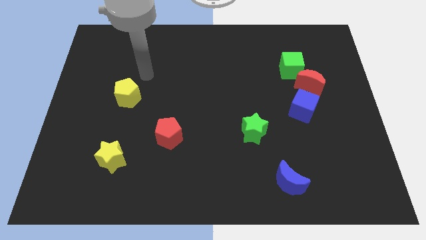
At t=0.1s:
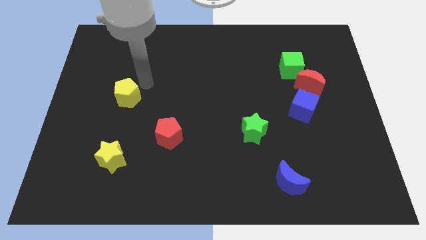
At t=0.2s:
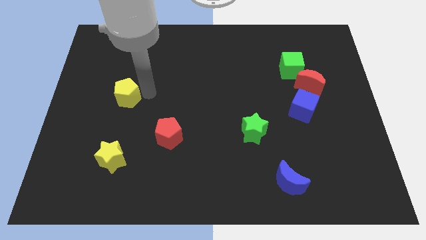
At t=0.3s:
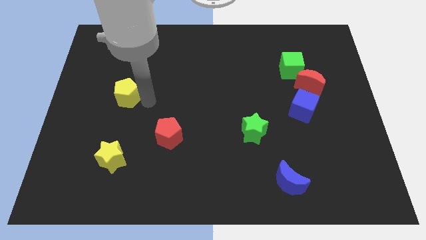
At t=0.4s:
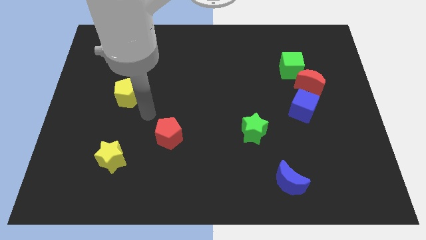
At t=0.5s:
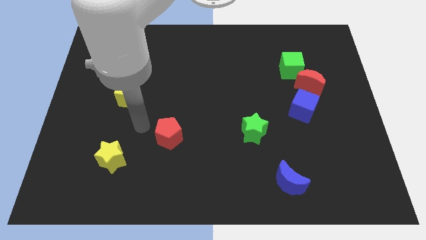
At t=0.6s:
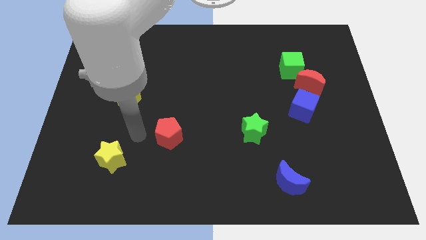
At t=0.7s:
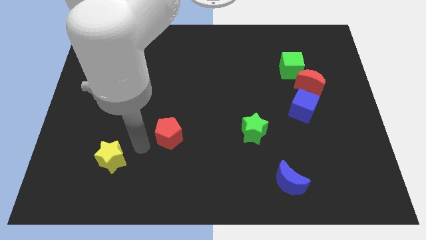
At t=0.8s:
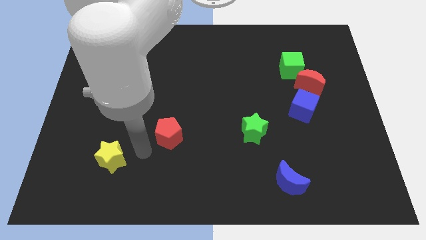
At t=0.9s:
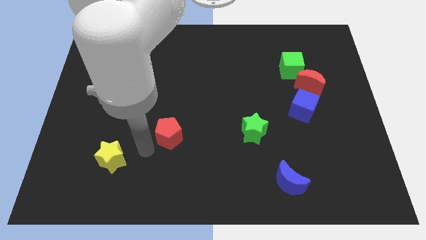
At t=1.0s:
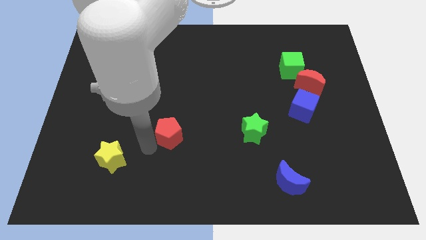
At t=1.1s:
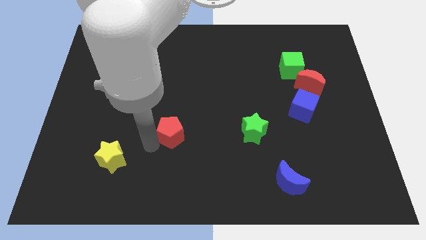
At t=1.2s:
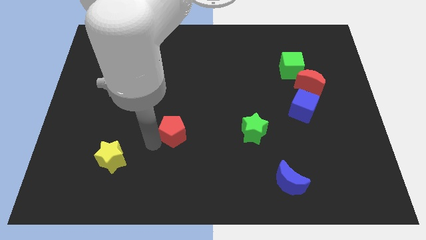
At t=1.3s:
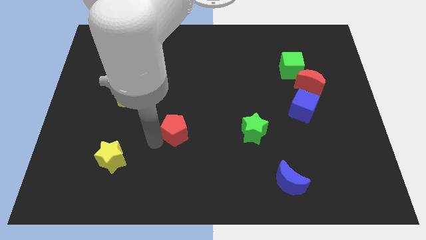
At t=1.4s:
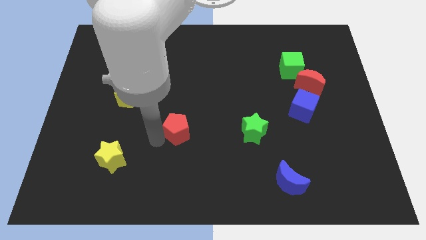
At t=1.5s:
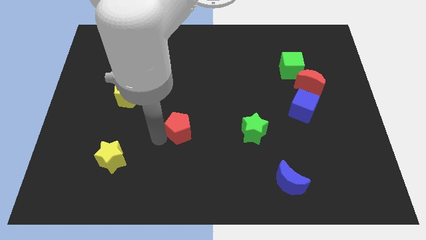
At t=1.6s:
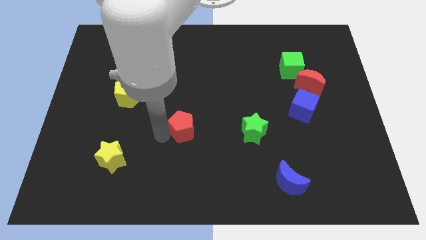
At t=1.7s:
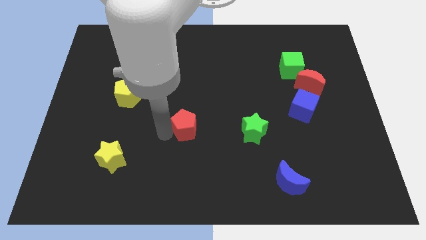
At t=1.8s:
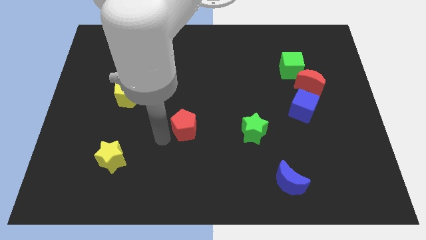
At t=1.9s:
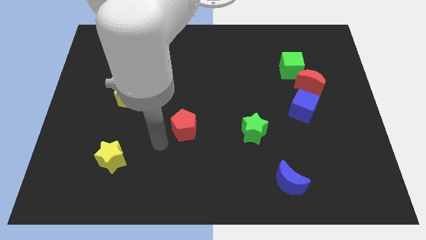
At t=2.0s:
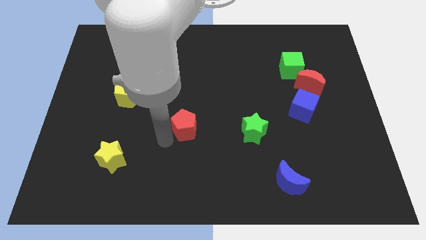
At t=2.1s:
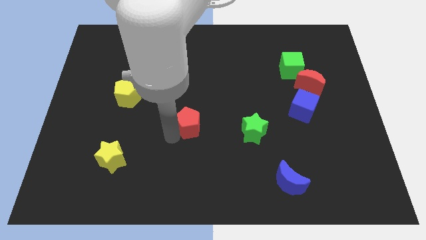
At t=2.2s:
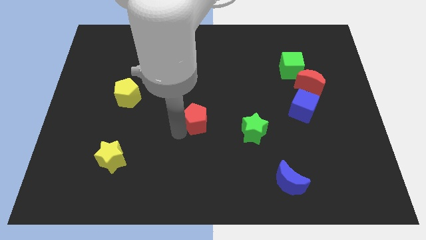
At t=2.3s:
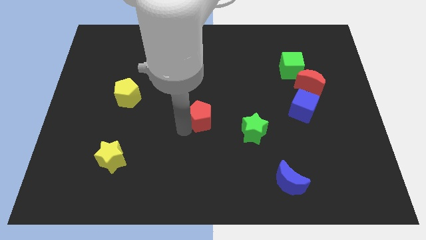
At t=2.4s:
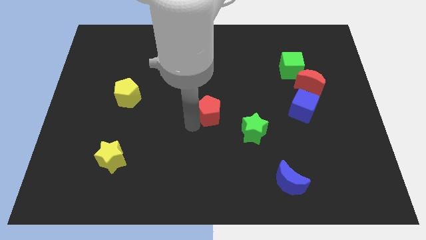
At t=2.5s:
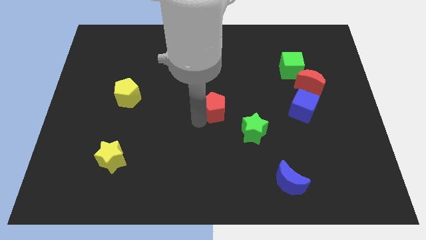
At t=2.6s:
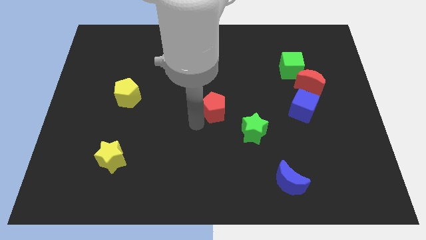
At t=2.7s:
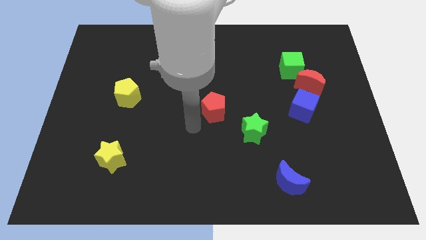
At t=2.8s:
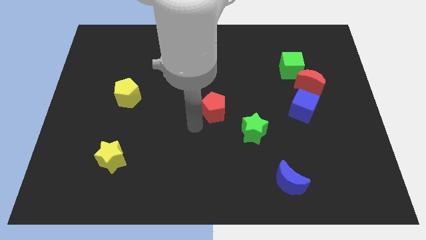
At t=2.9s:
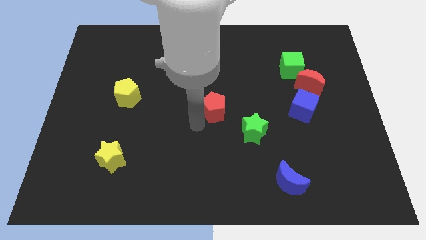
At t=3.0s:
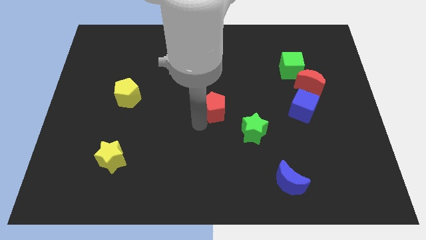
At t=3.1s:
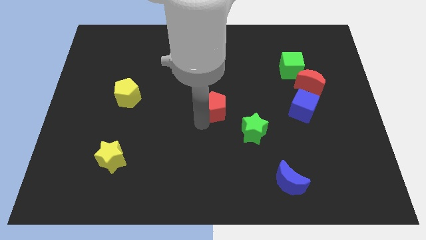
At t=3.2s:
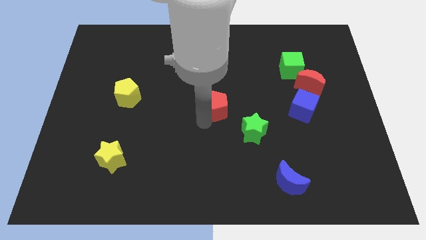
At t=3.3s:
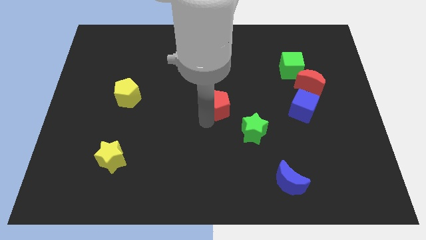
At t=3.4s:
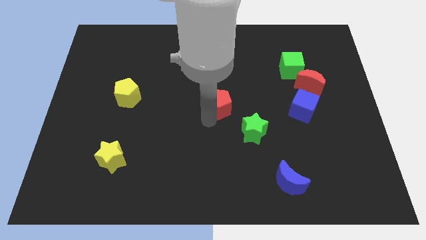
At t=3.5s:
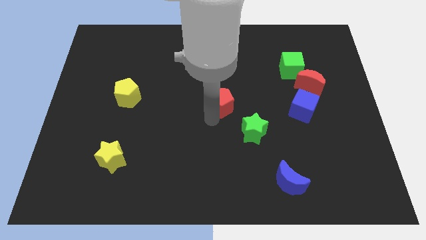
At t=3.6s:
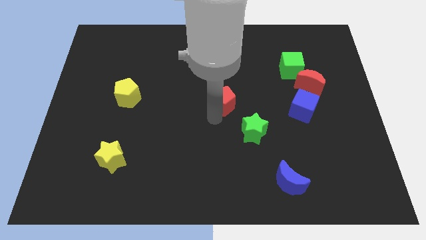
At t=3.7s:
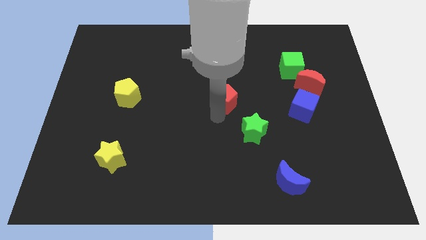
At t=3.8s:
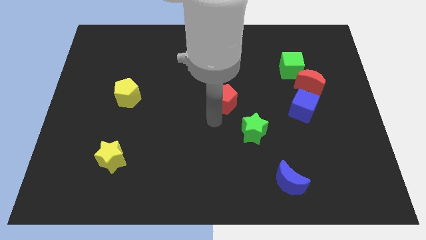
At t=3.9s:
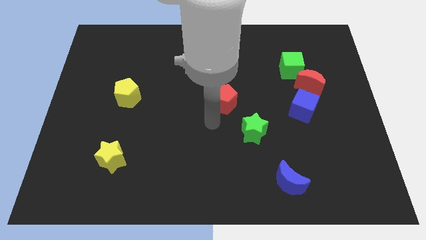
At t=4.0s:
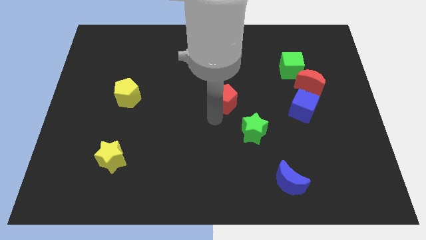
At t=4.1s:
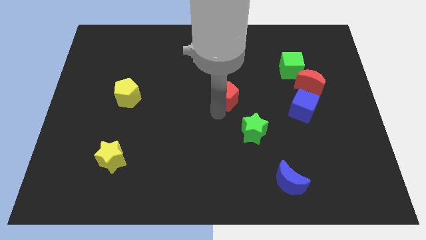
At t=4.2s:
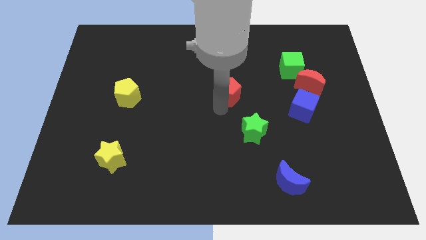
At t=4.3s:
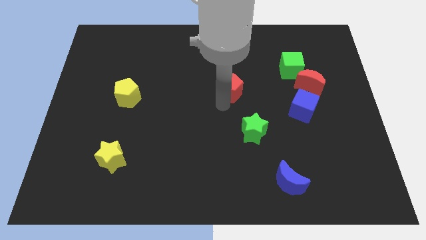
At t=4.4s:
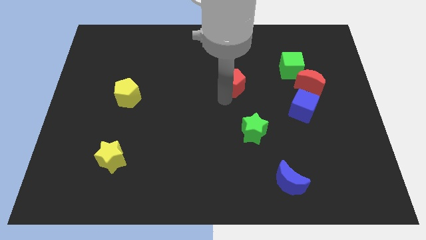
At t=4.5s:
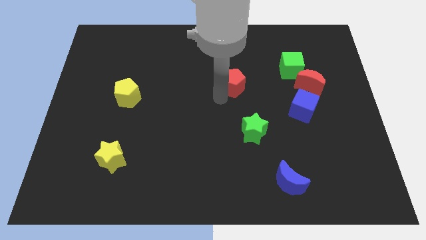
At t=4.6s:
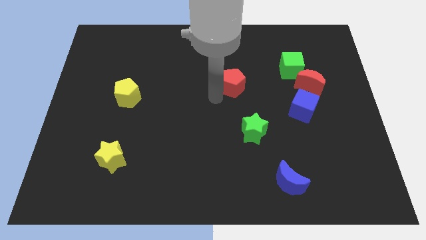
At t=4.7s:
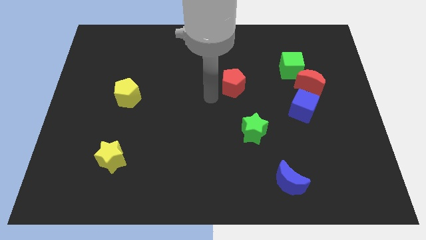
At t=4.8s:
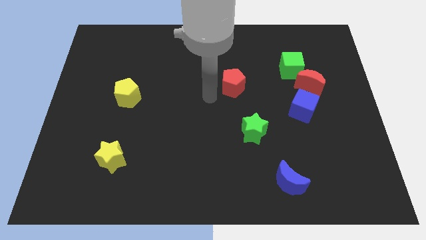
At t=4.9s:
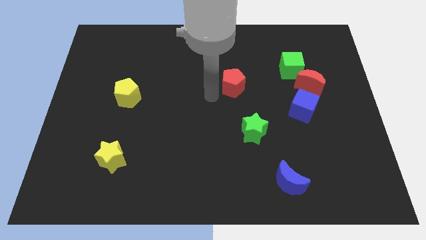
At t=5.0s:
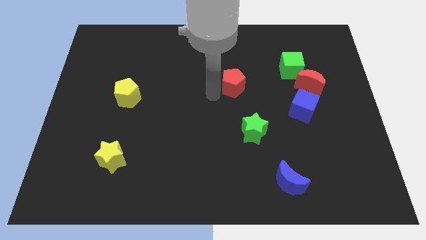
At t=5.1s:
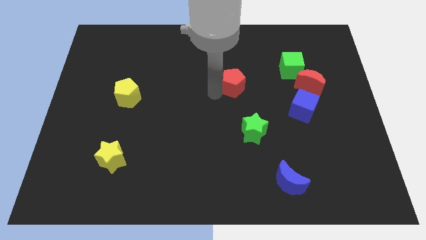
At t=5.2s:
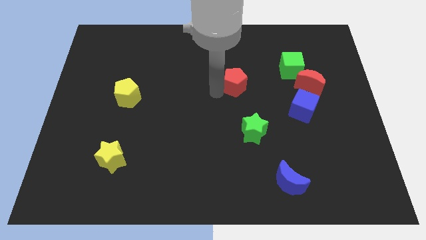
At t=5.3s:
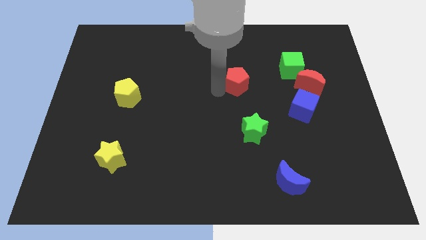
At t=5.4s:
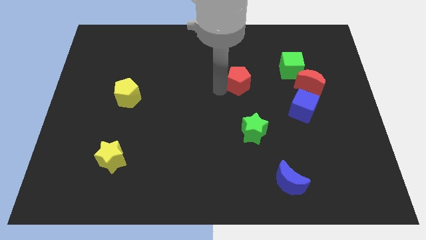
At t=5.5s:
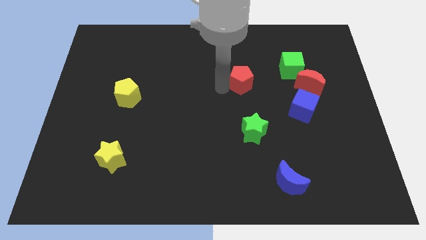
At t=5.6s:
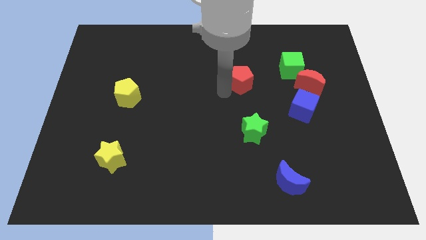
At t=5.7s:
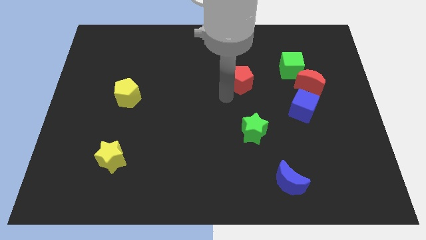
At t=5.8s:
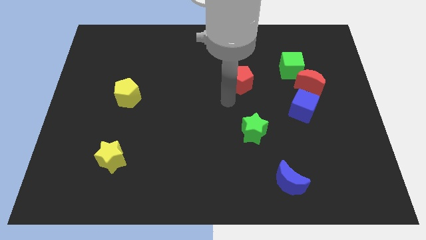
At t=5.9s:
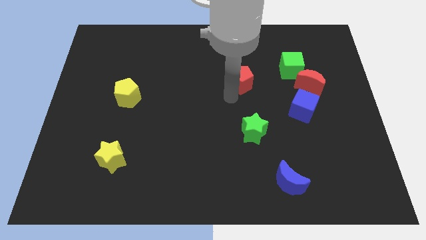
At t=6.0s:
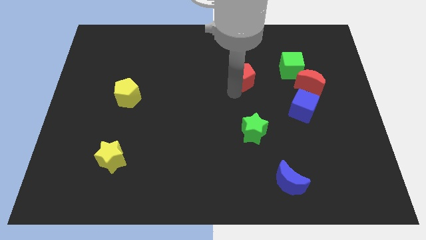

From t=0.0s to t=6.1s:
put the red pentagon left of the green cube
